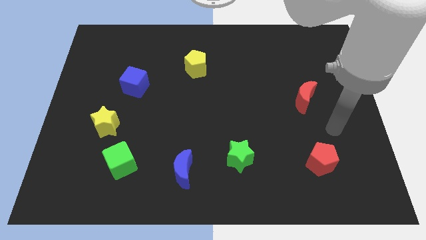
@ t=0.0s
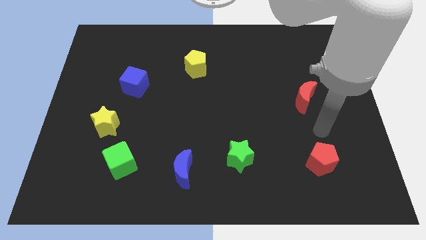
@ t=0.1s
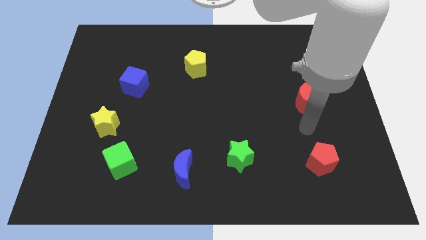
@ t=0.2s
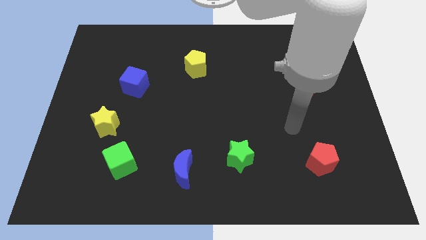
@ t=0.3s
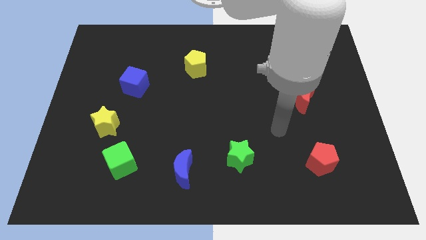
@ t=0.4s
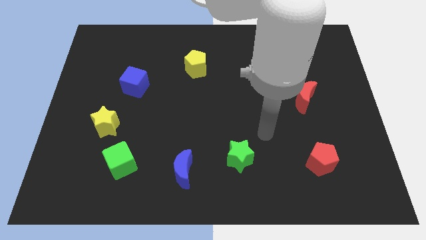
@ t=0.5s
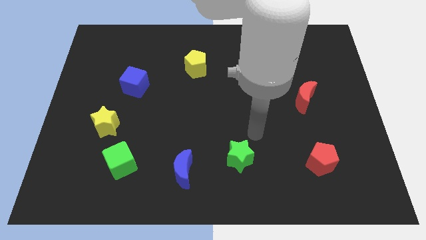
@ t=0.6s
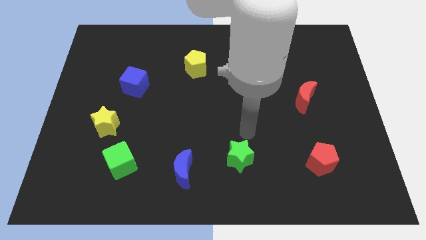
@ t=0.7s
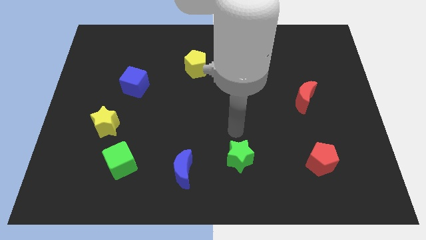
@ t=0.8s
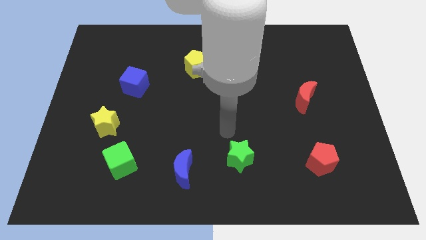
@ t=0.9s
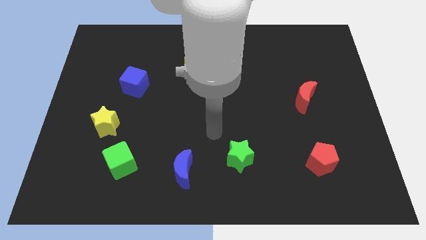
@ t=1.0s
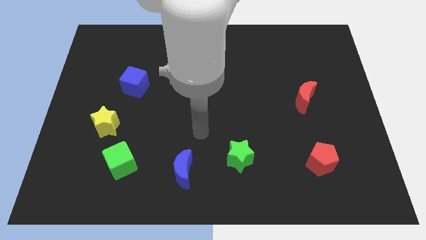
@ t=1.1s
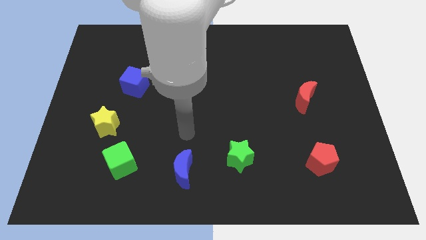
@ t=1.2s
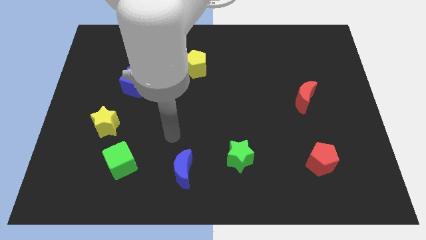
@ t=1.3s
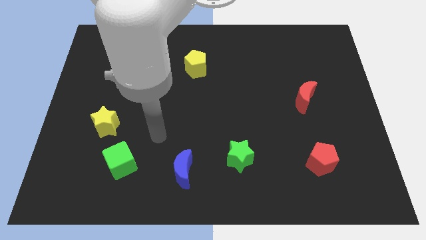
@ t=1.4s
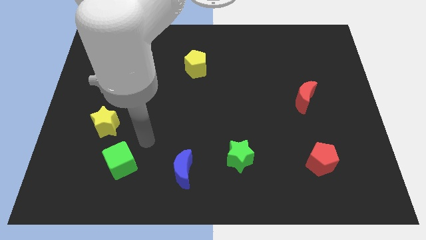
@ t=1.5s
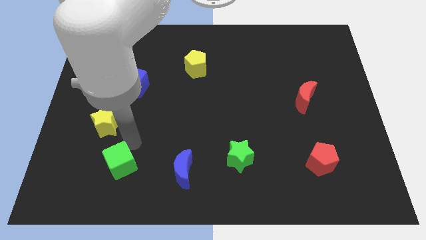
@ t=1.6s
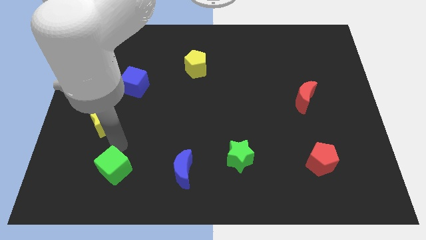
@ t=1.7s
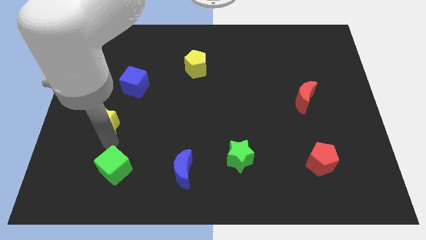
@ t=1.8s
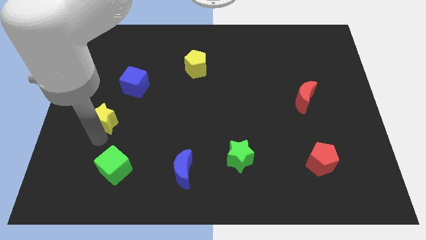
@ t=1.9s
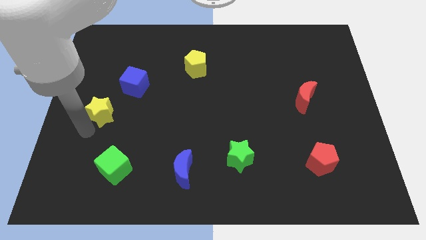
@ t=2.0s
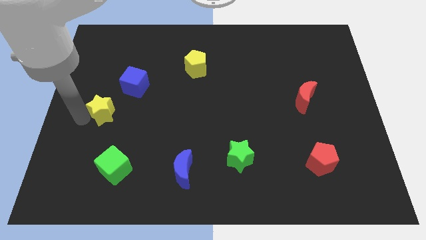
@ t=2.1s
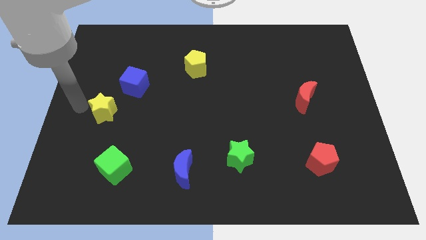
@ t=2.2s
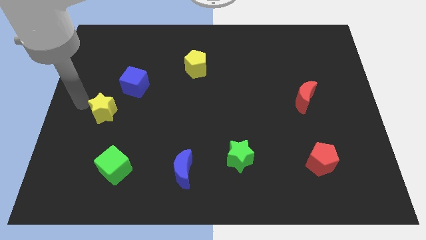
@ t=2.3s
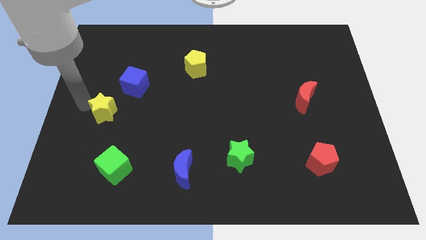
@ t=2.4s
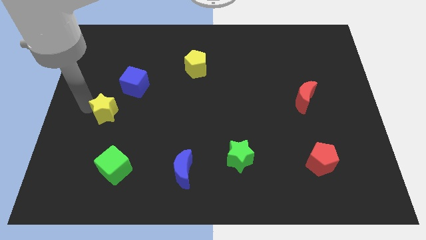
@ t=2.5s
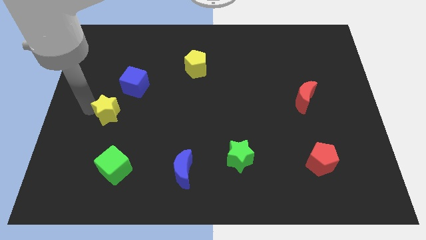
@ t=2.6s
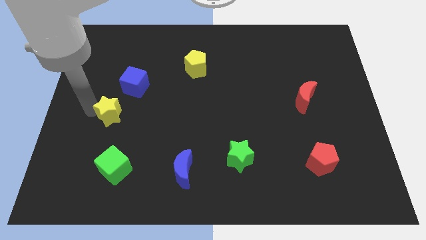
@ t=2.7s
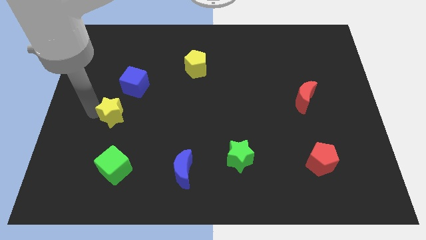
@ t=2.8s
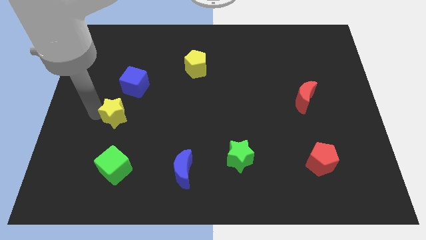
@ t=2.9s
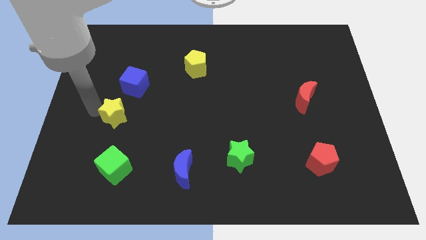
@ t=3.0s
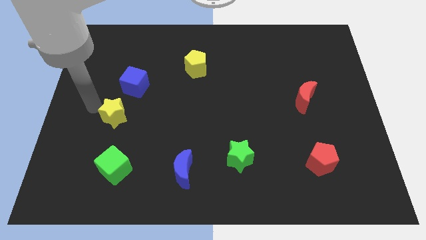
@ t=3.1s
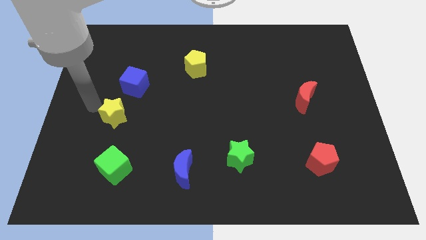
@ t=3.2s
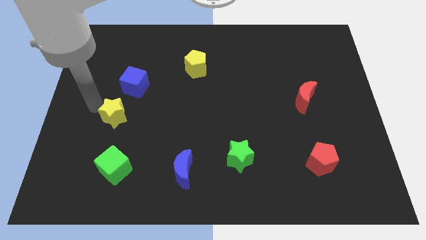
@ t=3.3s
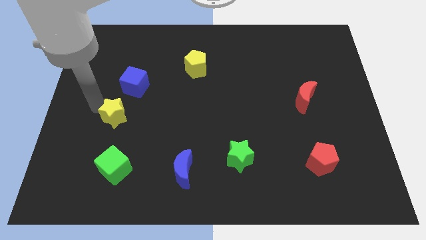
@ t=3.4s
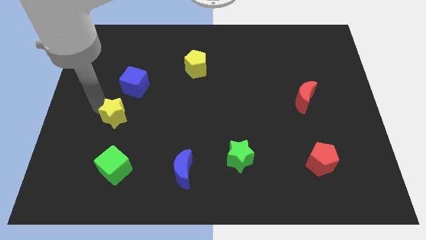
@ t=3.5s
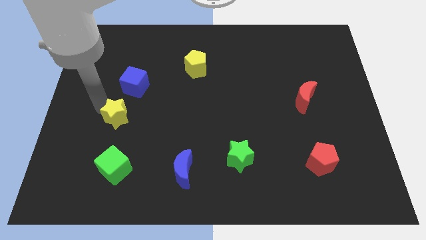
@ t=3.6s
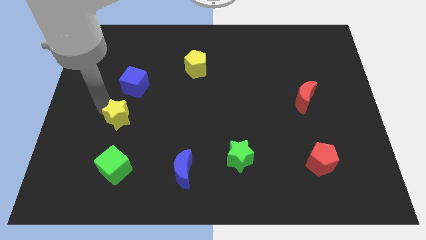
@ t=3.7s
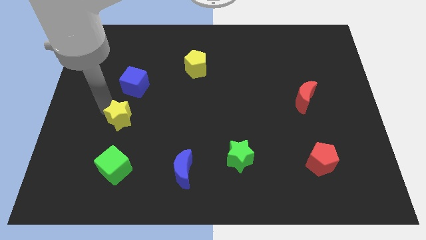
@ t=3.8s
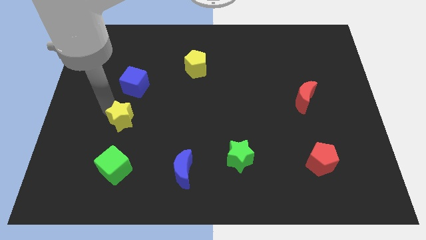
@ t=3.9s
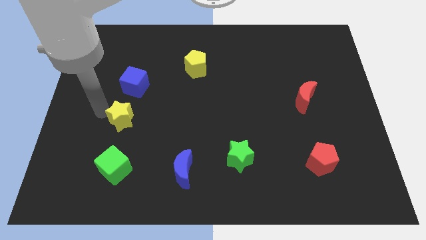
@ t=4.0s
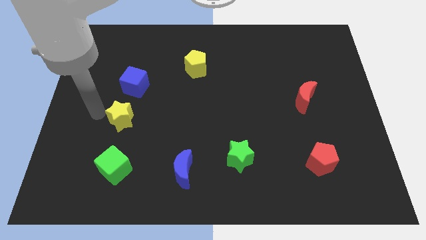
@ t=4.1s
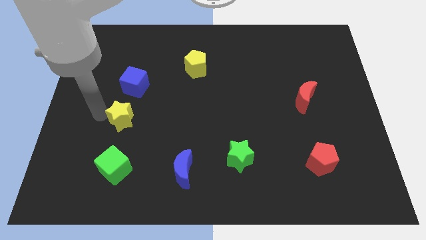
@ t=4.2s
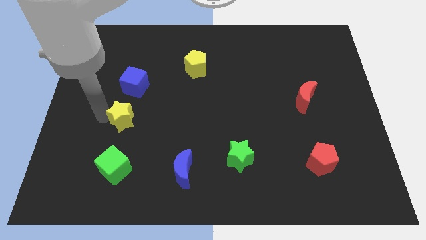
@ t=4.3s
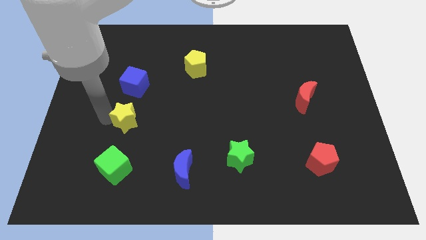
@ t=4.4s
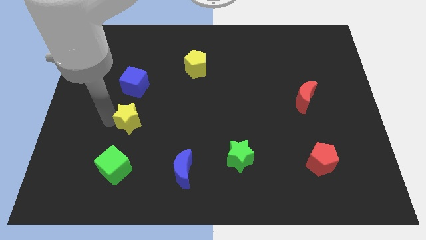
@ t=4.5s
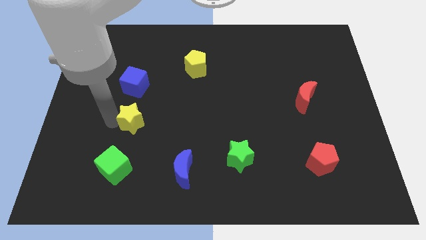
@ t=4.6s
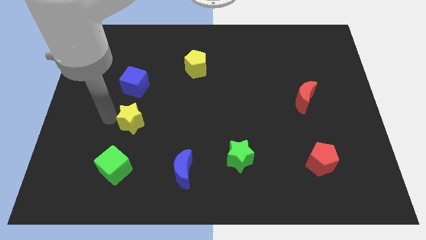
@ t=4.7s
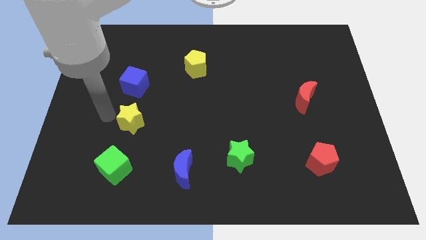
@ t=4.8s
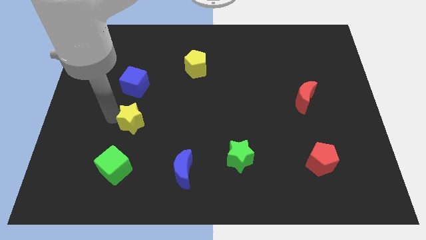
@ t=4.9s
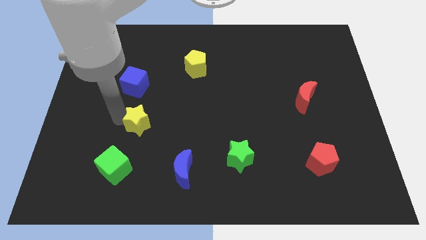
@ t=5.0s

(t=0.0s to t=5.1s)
move the yellow star somewhat right

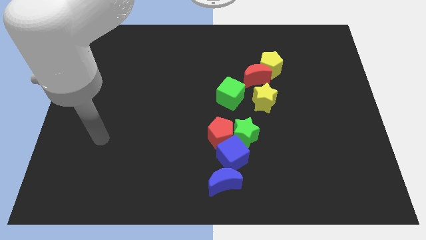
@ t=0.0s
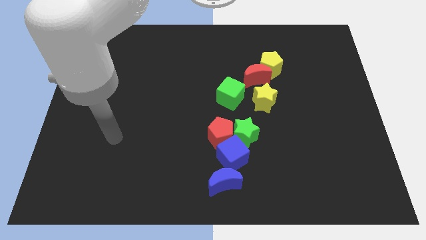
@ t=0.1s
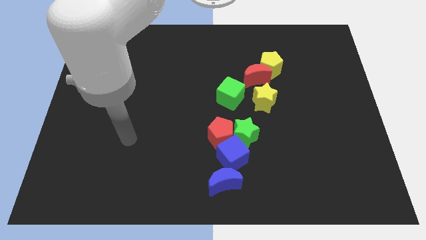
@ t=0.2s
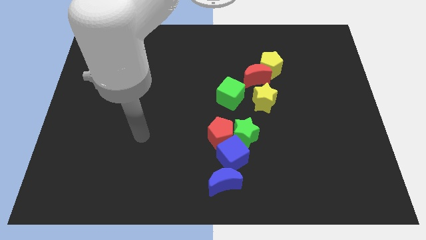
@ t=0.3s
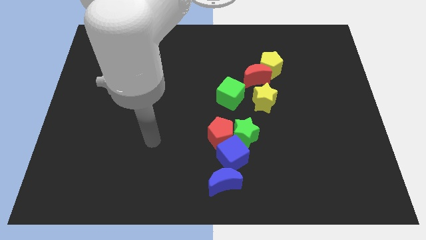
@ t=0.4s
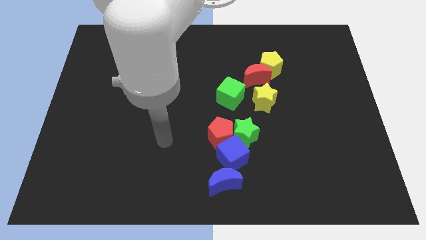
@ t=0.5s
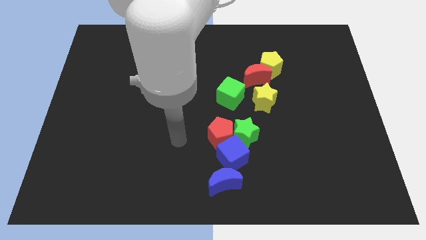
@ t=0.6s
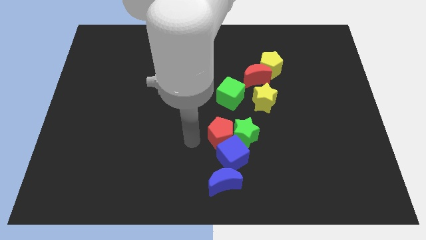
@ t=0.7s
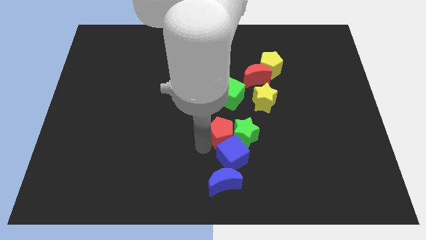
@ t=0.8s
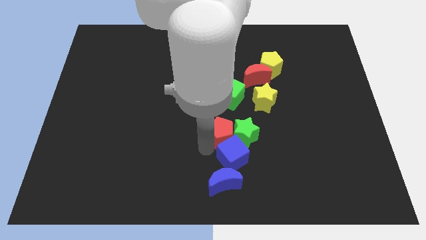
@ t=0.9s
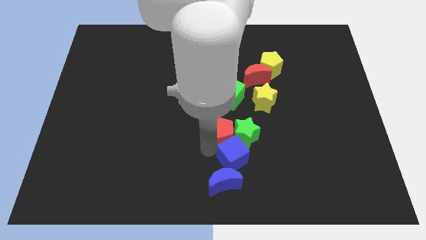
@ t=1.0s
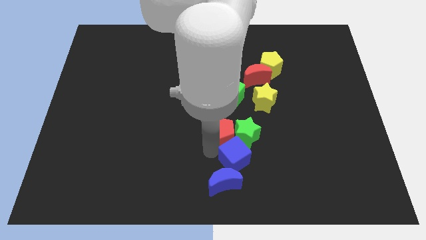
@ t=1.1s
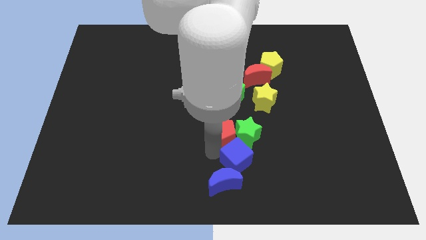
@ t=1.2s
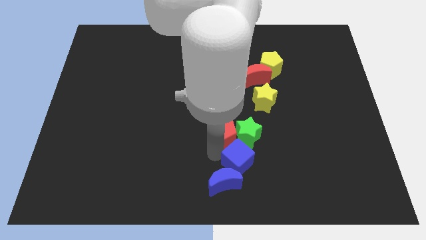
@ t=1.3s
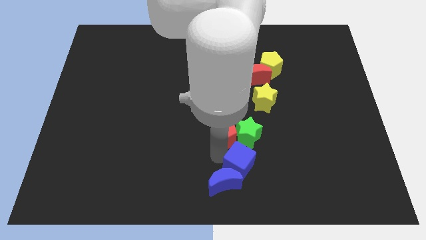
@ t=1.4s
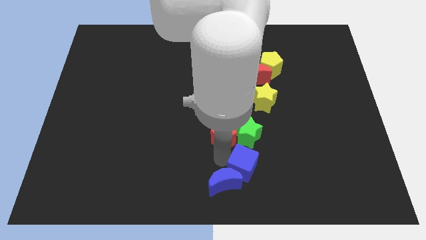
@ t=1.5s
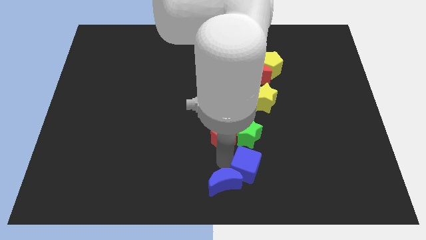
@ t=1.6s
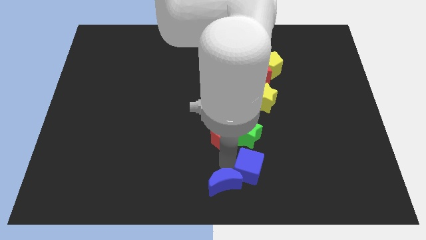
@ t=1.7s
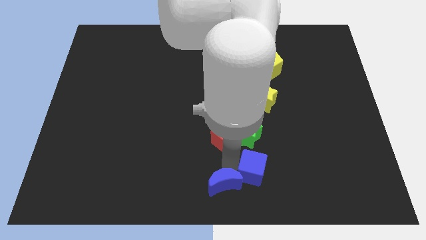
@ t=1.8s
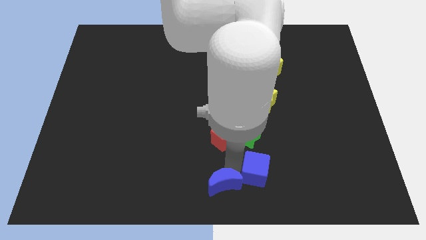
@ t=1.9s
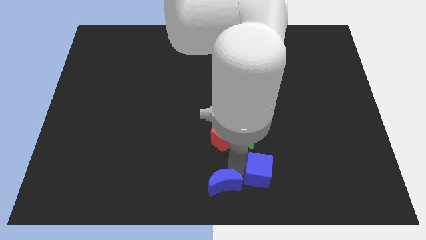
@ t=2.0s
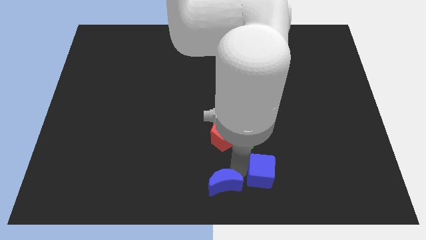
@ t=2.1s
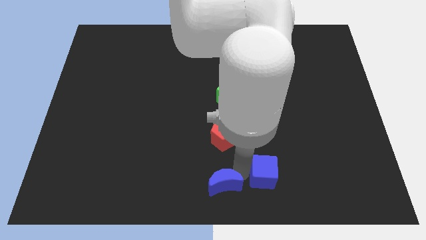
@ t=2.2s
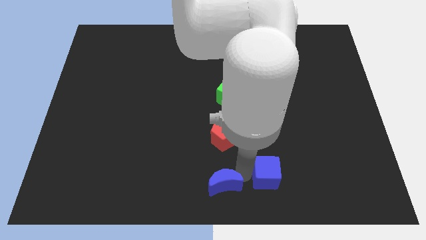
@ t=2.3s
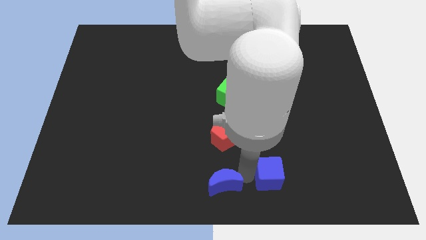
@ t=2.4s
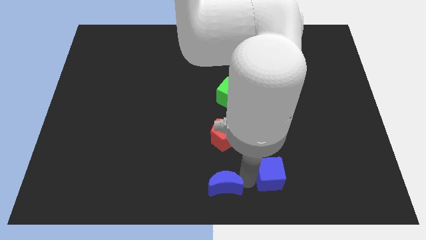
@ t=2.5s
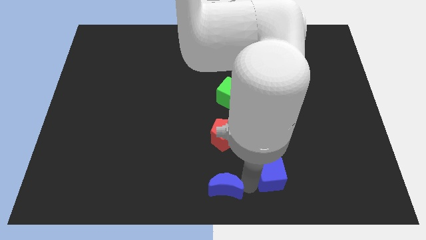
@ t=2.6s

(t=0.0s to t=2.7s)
move the blue cube slightly to the right

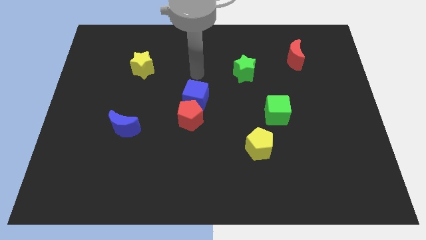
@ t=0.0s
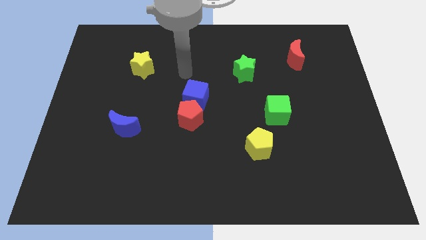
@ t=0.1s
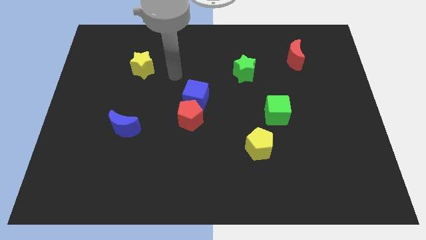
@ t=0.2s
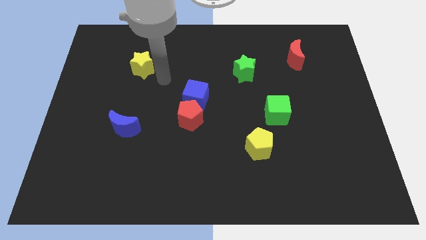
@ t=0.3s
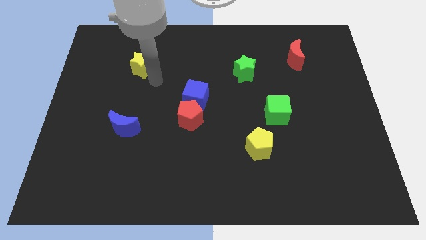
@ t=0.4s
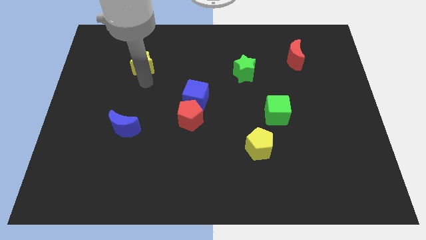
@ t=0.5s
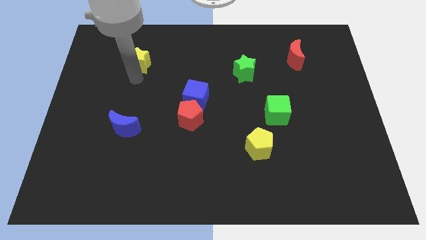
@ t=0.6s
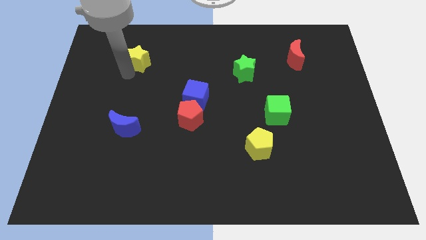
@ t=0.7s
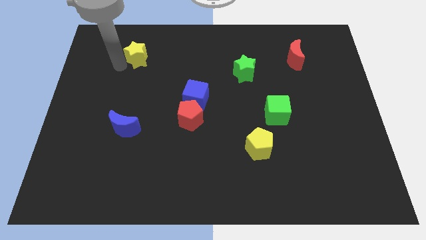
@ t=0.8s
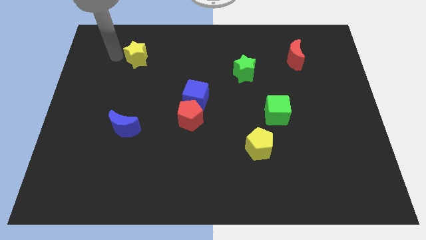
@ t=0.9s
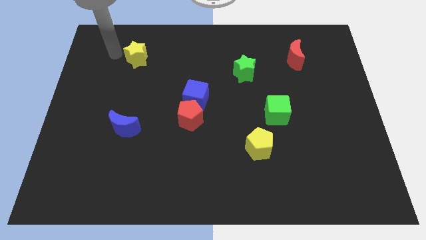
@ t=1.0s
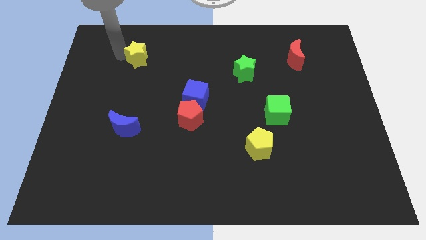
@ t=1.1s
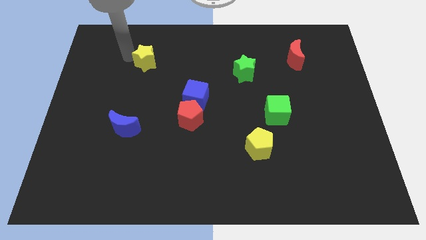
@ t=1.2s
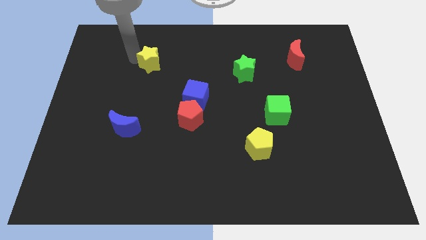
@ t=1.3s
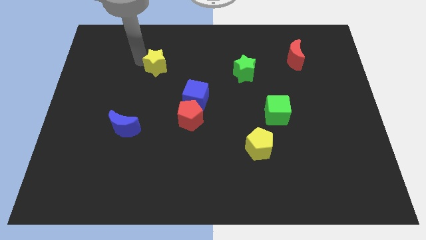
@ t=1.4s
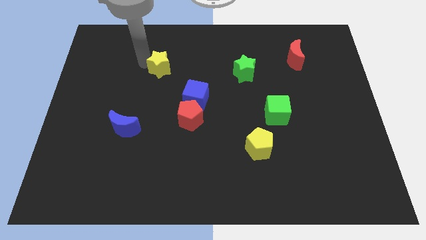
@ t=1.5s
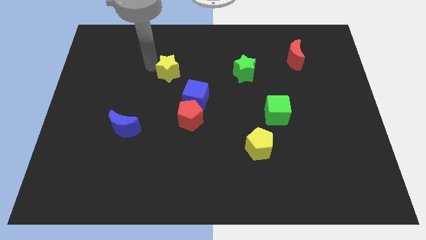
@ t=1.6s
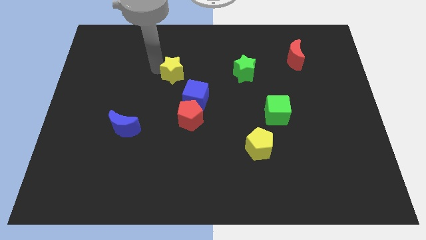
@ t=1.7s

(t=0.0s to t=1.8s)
push the yellow star to the right somewhat
